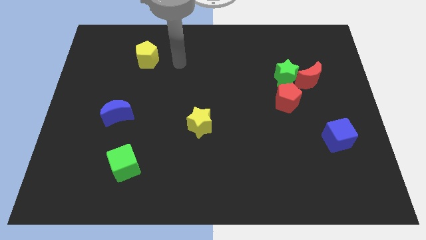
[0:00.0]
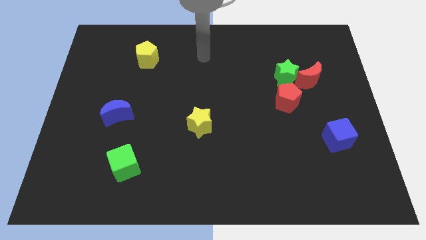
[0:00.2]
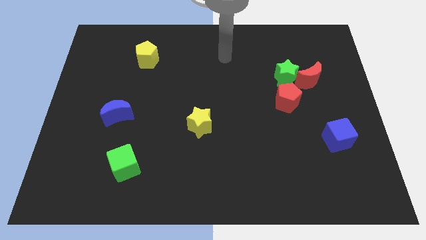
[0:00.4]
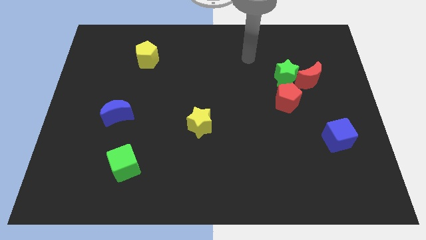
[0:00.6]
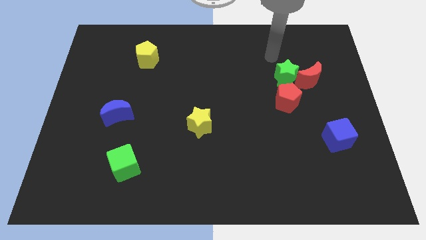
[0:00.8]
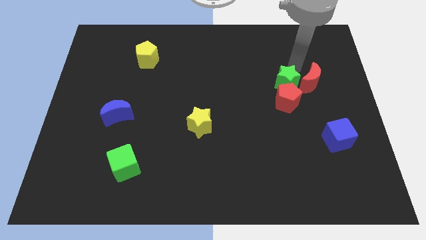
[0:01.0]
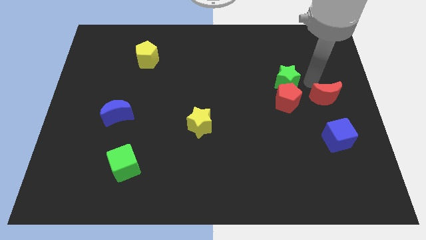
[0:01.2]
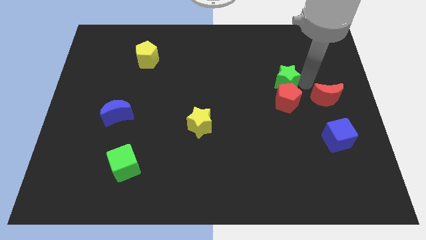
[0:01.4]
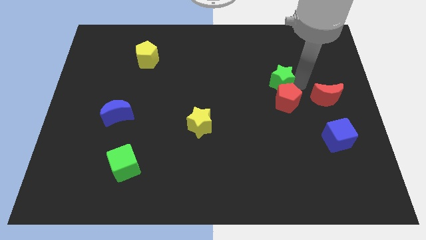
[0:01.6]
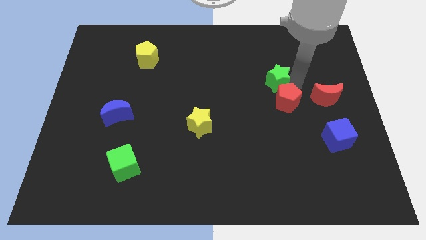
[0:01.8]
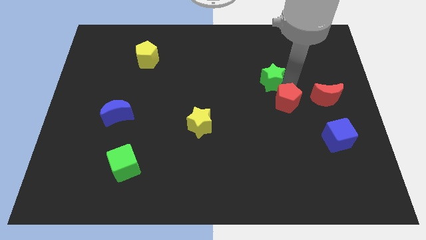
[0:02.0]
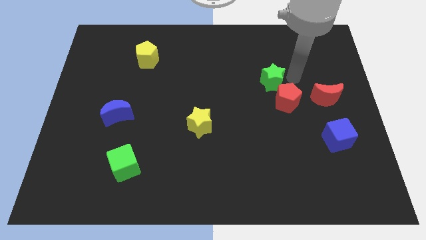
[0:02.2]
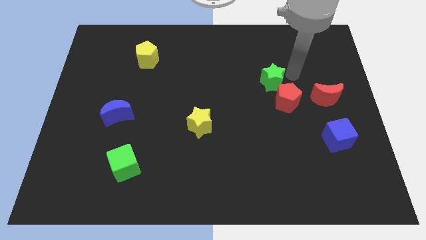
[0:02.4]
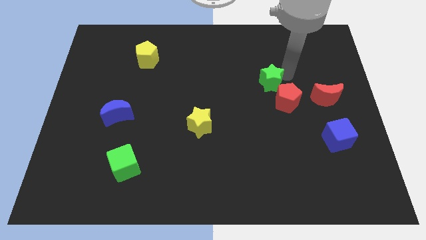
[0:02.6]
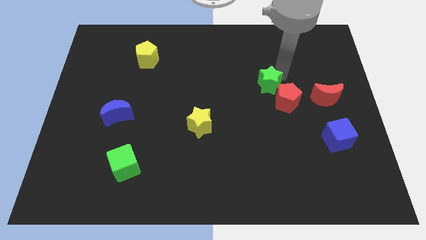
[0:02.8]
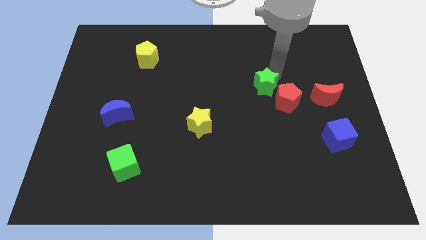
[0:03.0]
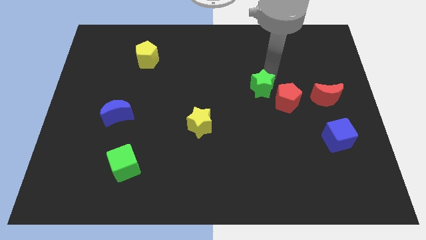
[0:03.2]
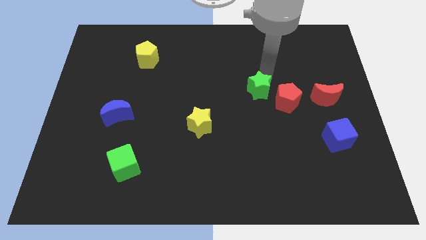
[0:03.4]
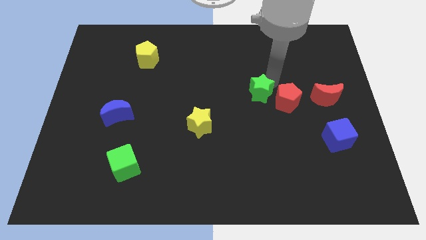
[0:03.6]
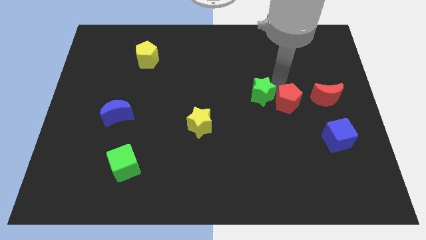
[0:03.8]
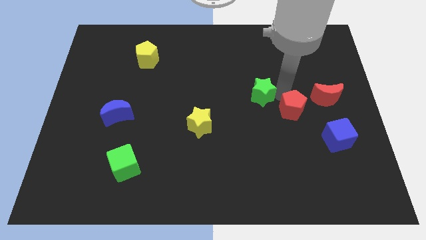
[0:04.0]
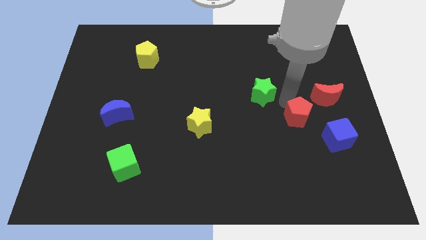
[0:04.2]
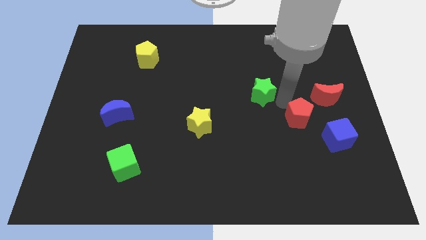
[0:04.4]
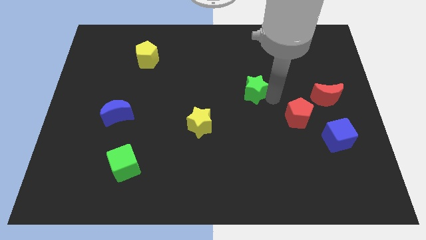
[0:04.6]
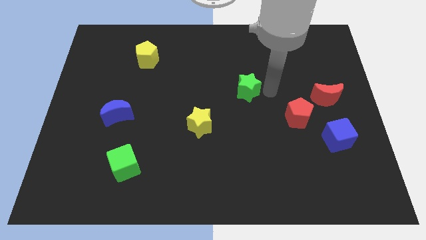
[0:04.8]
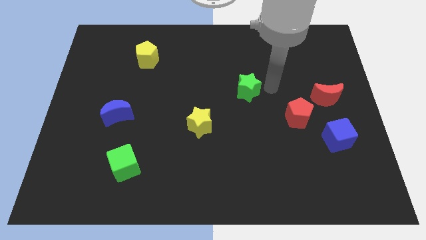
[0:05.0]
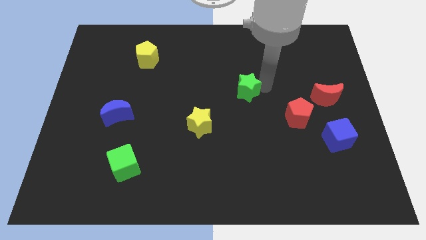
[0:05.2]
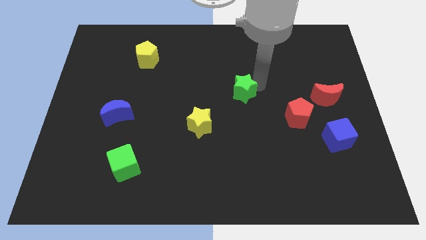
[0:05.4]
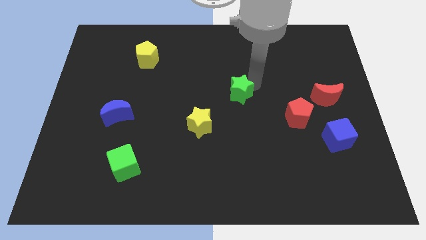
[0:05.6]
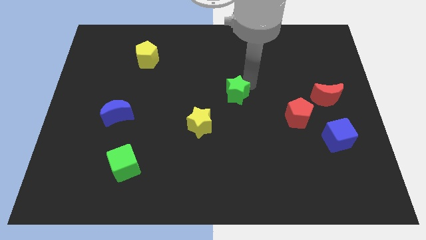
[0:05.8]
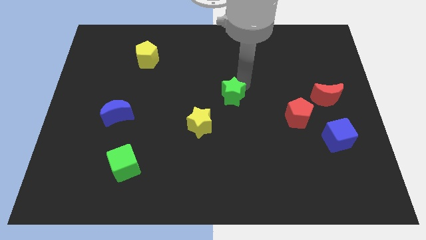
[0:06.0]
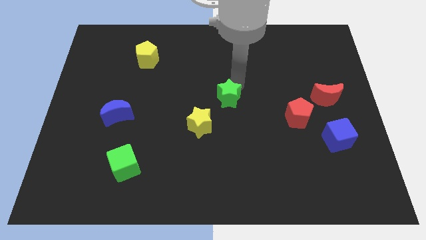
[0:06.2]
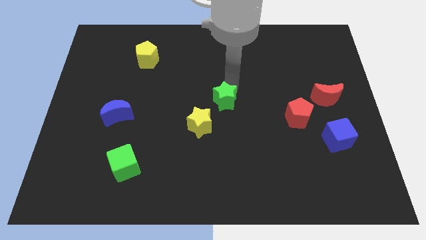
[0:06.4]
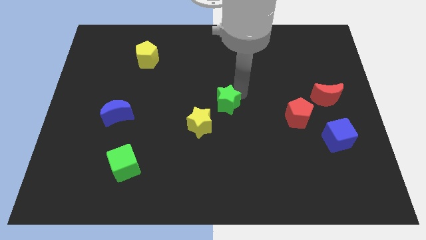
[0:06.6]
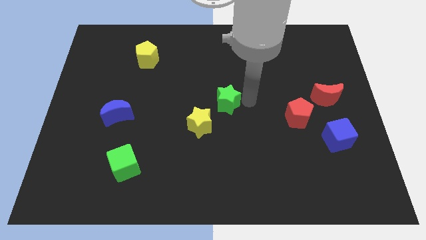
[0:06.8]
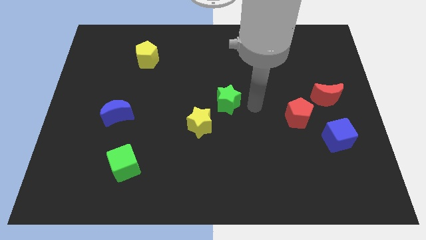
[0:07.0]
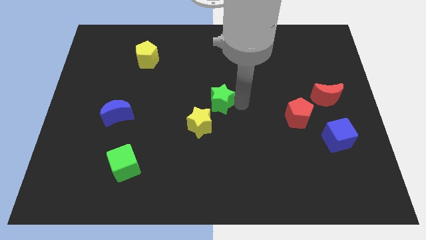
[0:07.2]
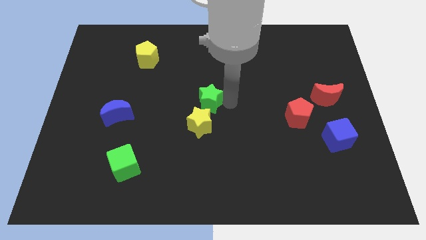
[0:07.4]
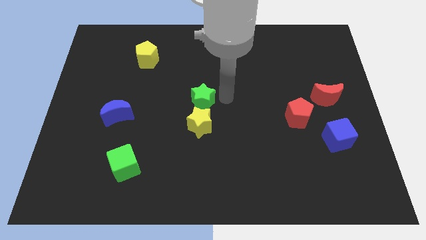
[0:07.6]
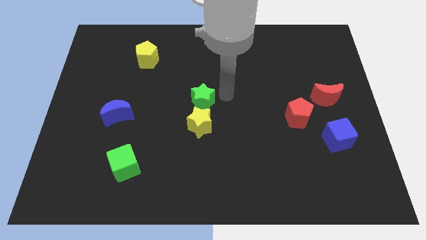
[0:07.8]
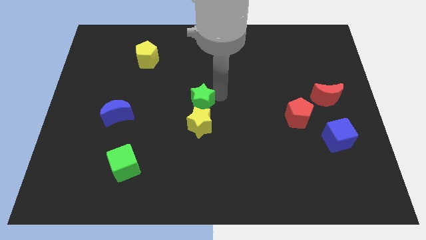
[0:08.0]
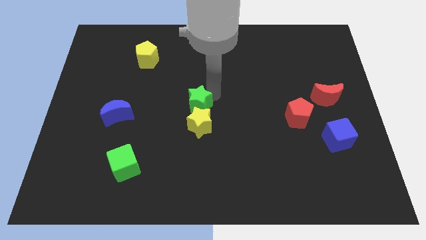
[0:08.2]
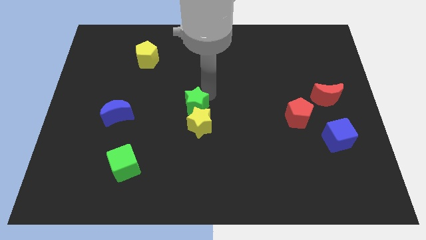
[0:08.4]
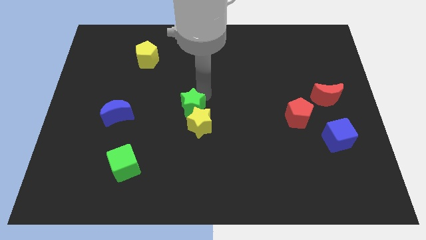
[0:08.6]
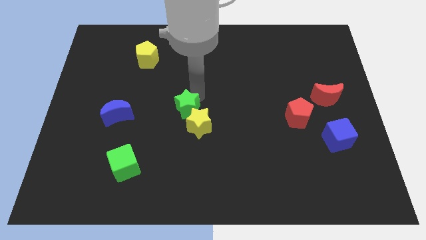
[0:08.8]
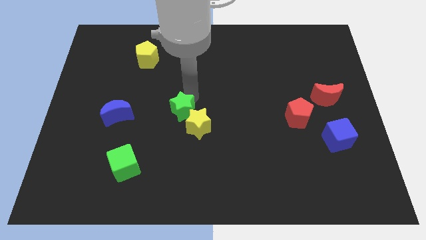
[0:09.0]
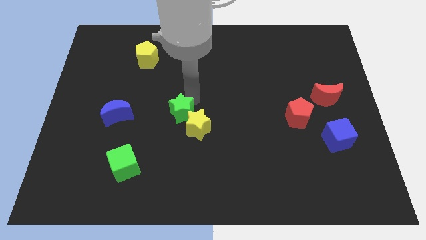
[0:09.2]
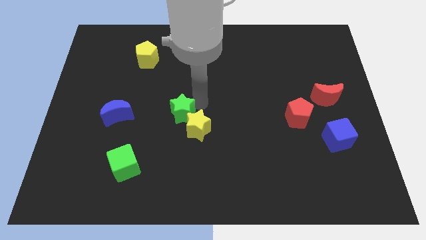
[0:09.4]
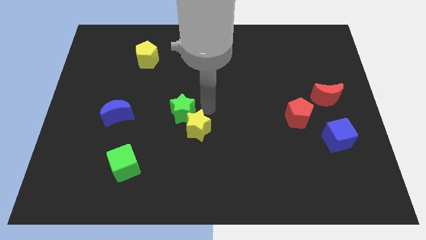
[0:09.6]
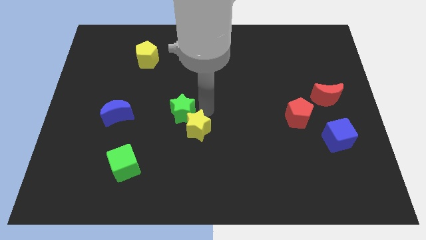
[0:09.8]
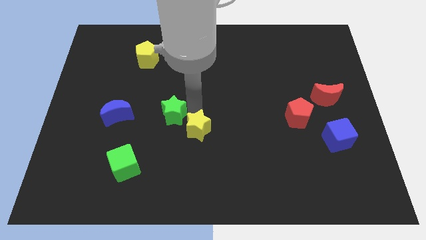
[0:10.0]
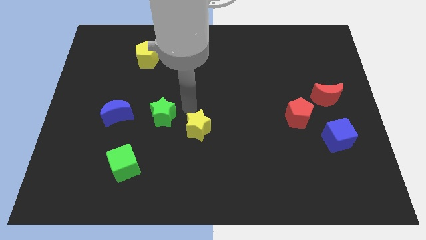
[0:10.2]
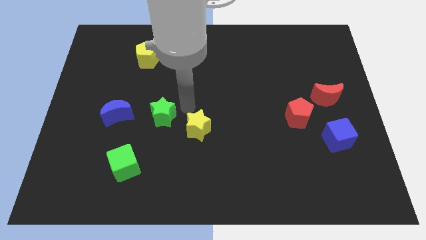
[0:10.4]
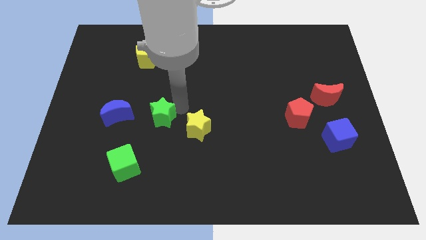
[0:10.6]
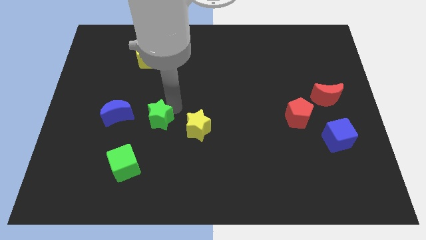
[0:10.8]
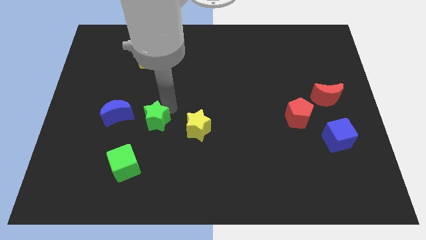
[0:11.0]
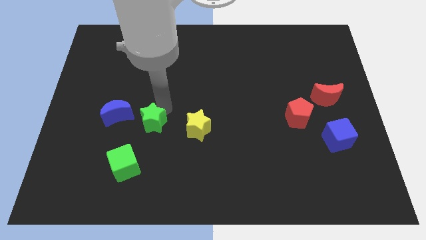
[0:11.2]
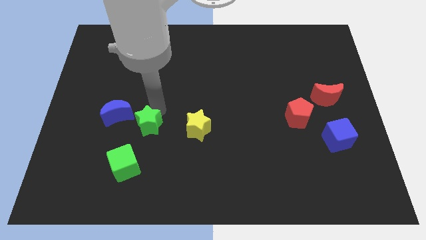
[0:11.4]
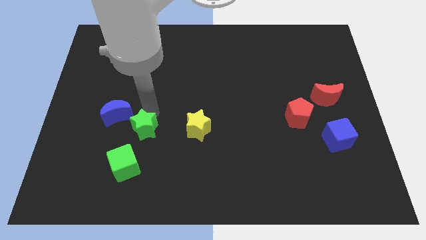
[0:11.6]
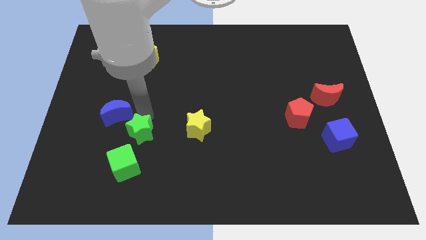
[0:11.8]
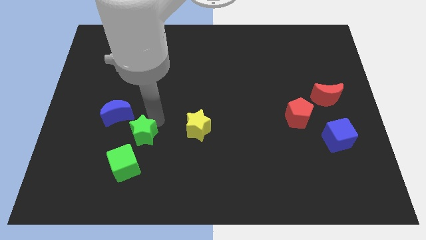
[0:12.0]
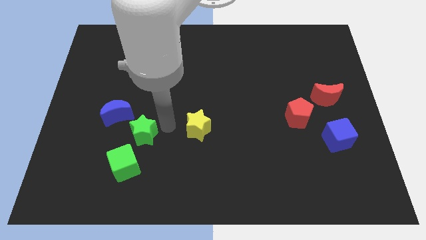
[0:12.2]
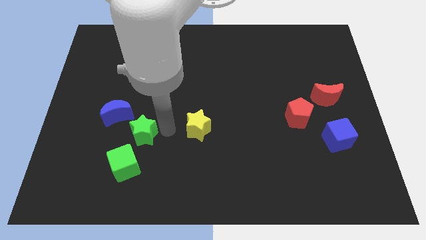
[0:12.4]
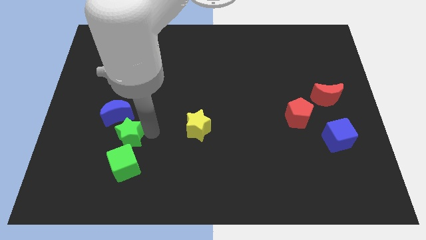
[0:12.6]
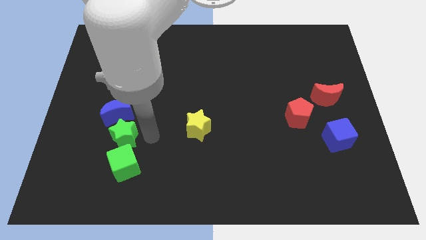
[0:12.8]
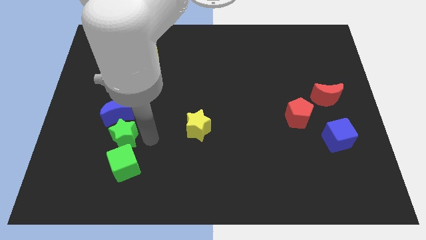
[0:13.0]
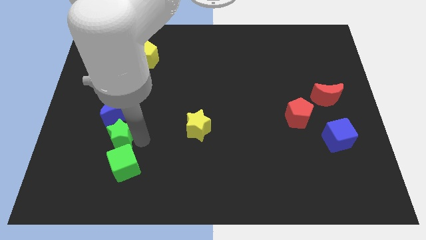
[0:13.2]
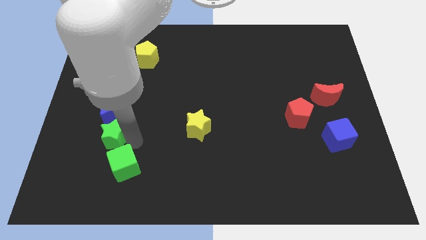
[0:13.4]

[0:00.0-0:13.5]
slide the green star to the bottom left of the blue moon

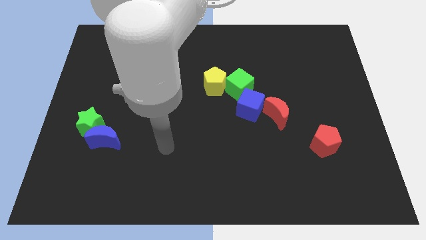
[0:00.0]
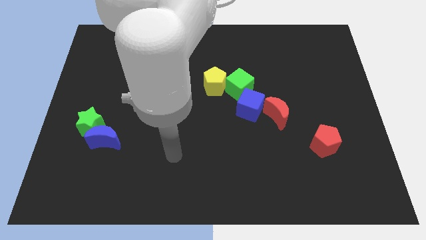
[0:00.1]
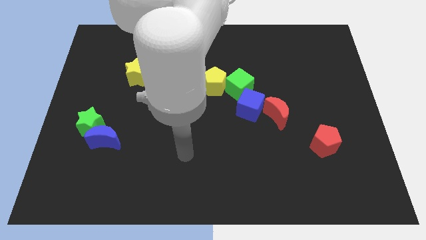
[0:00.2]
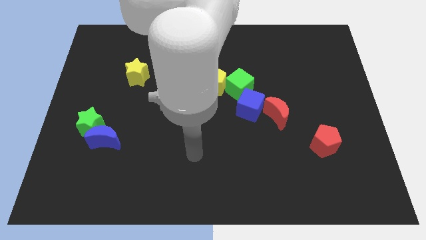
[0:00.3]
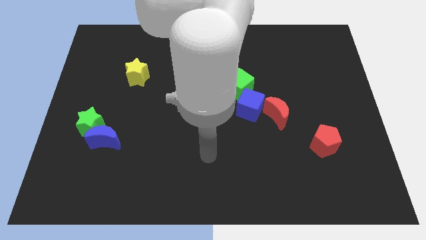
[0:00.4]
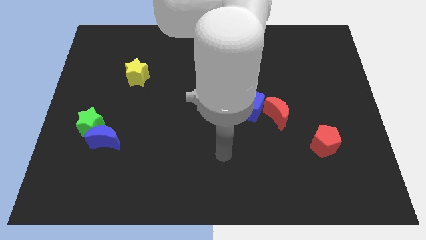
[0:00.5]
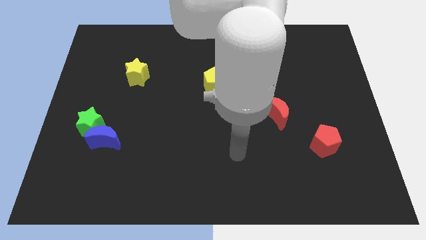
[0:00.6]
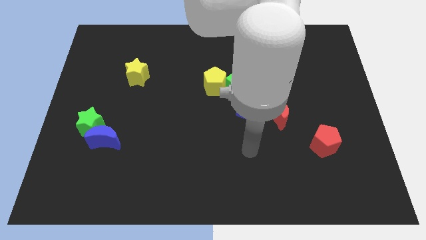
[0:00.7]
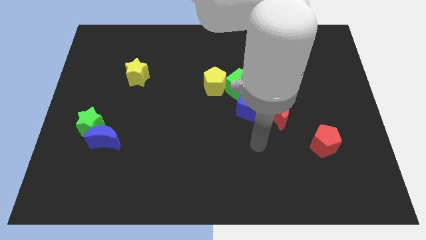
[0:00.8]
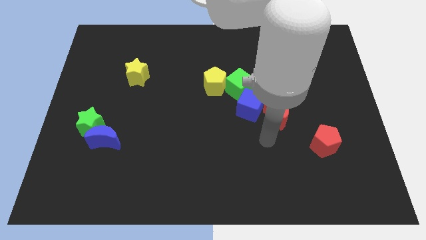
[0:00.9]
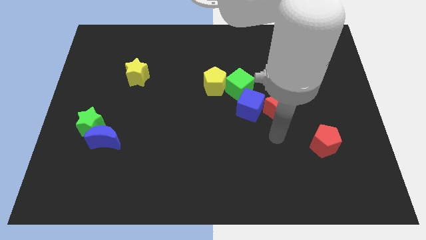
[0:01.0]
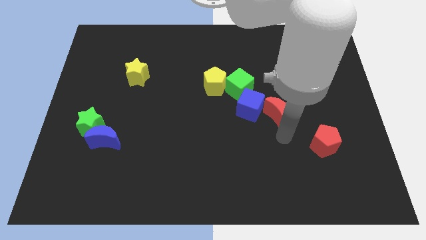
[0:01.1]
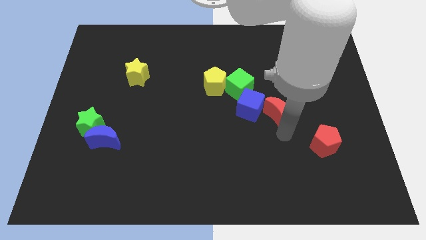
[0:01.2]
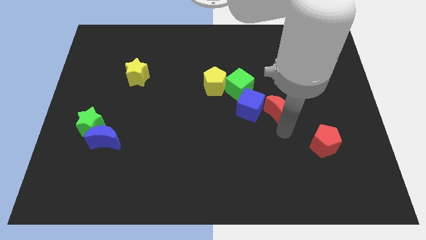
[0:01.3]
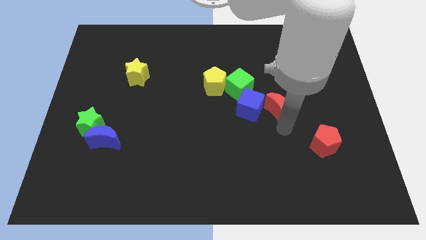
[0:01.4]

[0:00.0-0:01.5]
push the red moon diagonally up and to the right of the blue cube
